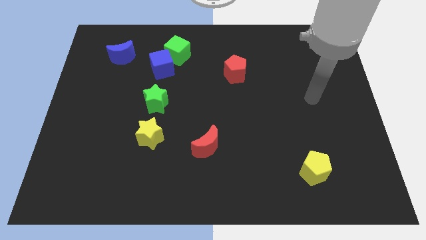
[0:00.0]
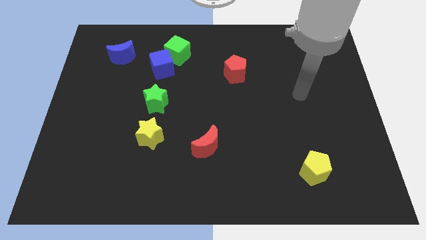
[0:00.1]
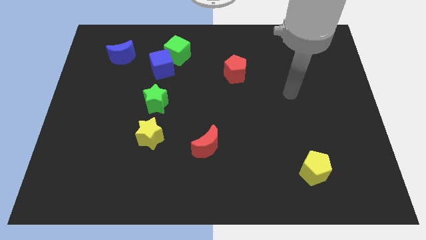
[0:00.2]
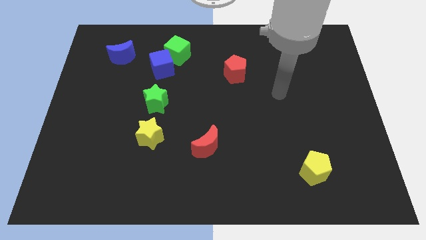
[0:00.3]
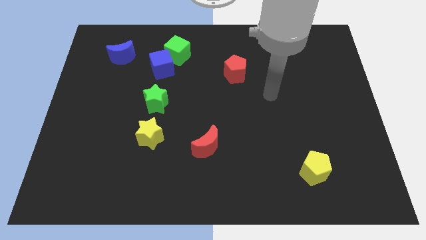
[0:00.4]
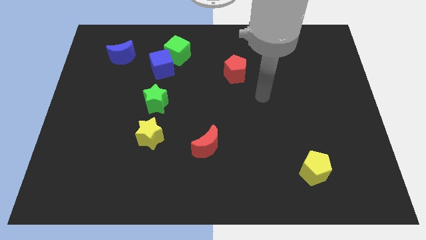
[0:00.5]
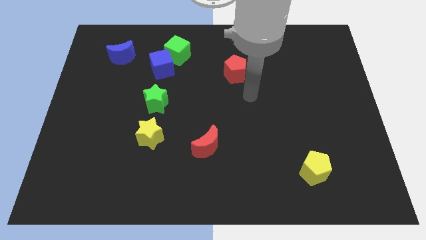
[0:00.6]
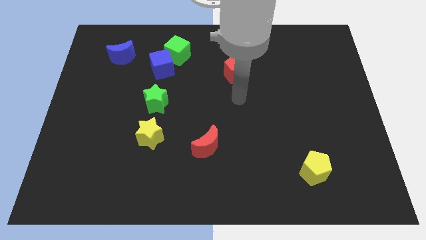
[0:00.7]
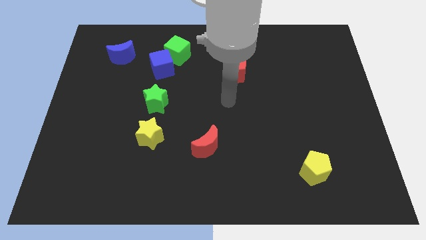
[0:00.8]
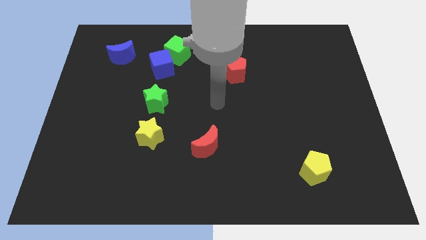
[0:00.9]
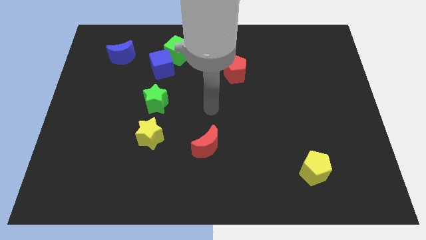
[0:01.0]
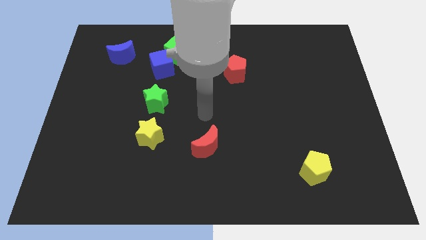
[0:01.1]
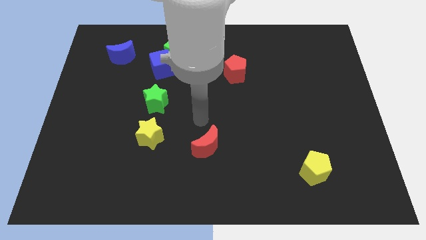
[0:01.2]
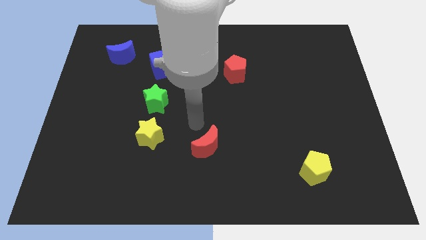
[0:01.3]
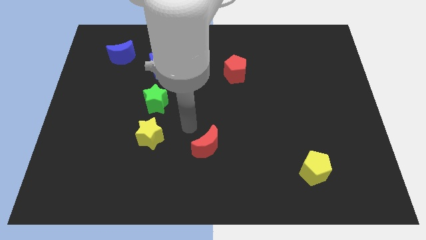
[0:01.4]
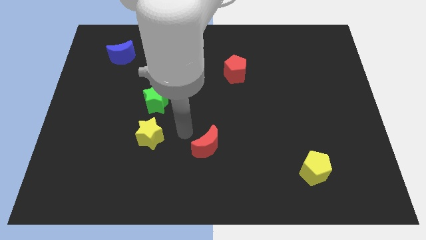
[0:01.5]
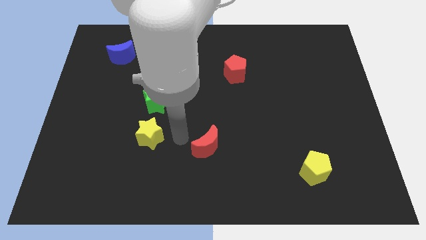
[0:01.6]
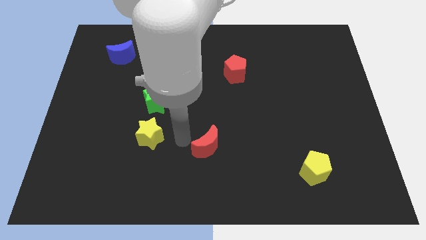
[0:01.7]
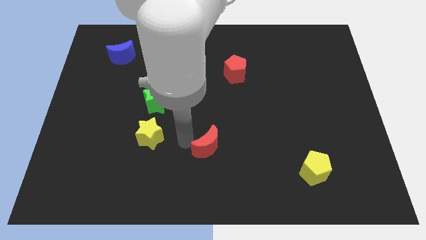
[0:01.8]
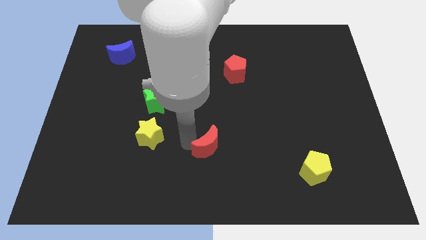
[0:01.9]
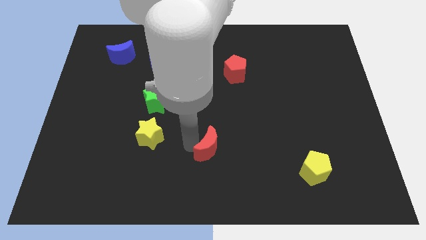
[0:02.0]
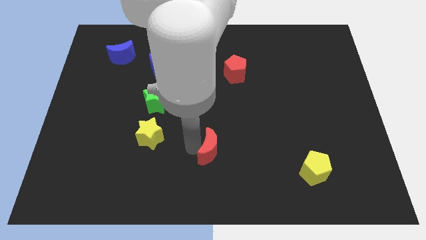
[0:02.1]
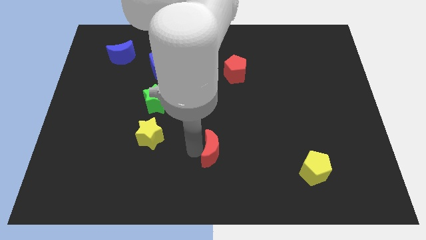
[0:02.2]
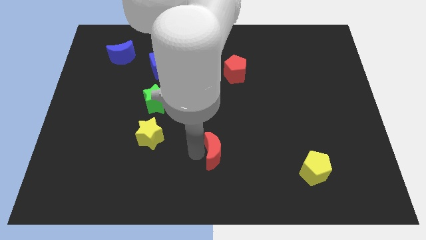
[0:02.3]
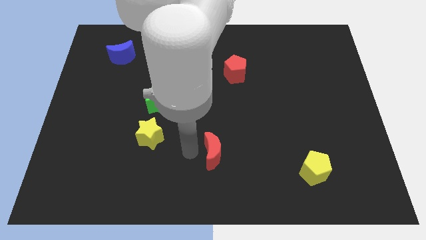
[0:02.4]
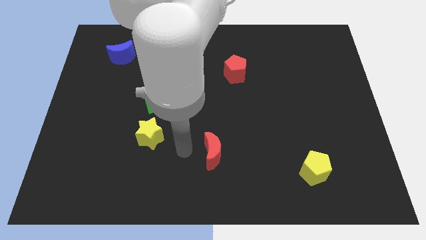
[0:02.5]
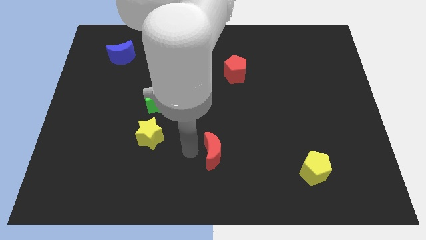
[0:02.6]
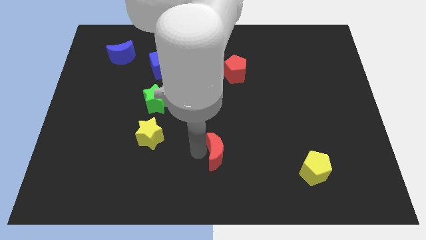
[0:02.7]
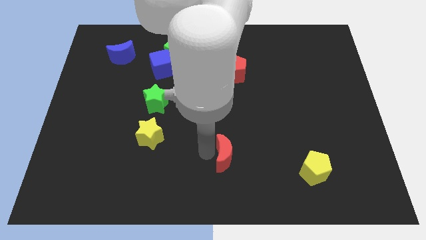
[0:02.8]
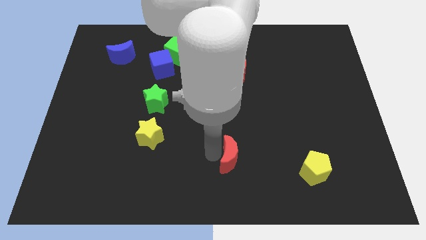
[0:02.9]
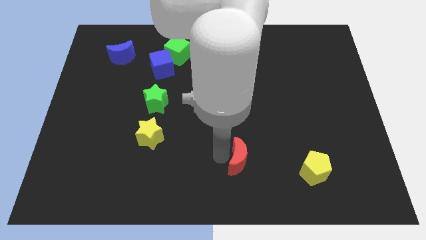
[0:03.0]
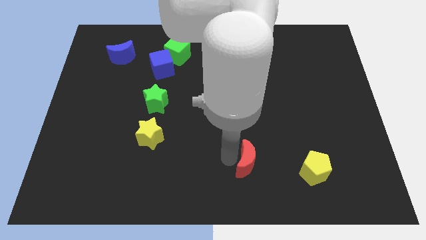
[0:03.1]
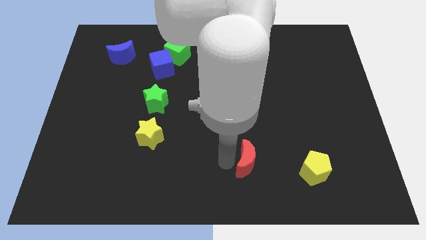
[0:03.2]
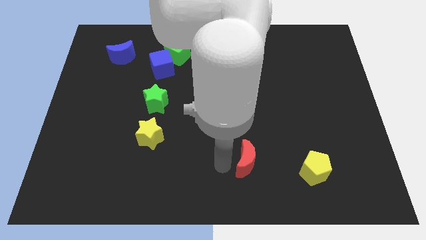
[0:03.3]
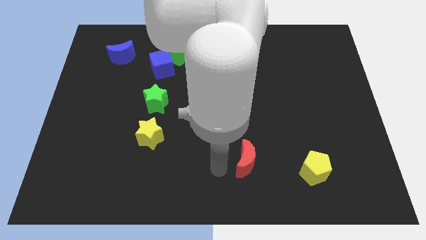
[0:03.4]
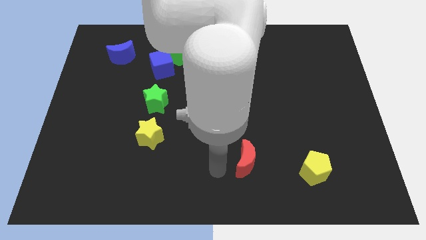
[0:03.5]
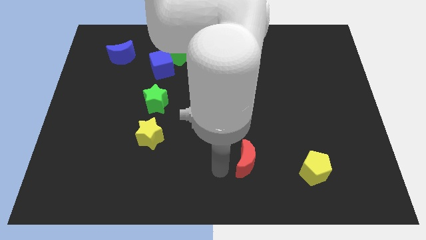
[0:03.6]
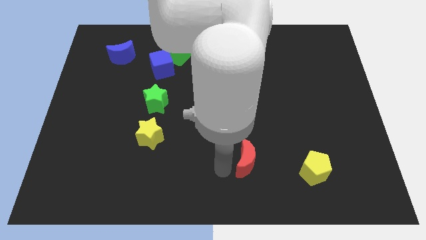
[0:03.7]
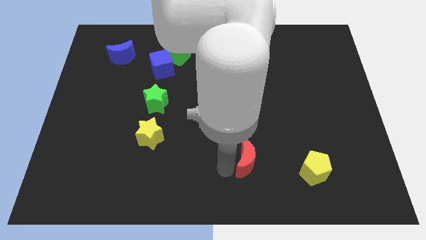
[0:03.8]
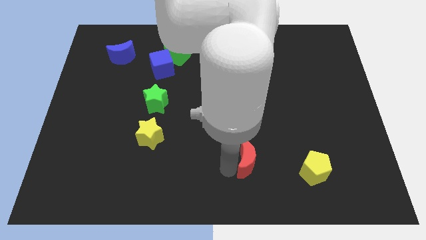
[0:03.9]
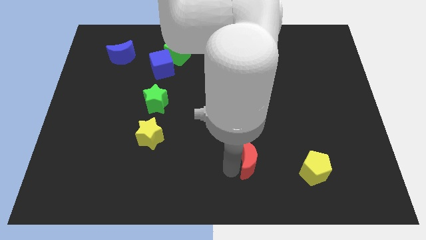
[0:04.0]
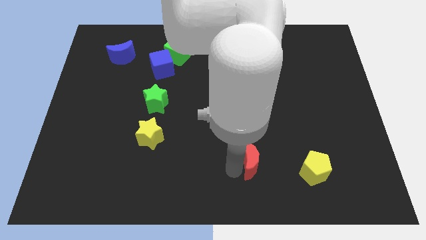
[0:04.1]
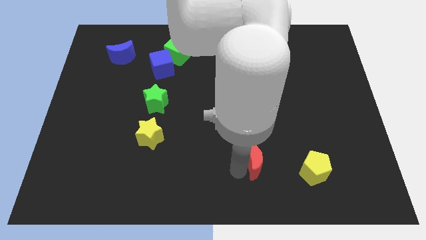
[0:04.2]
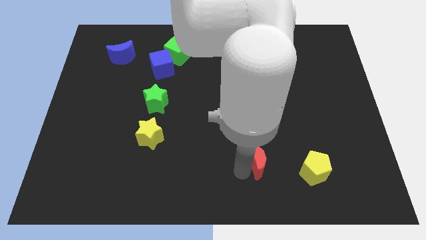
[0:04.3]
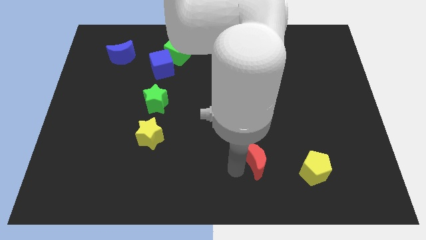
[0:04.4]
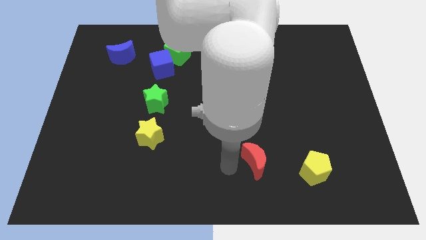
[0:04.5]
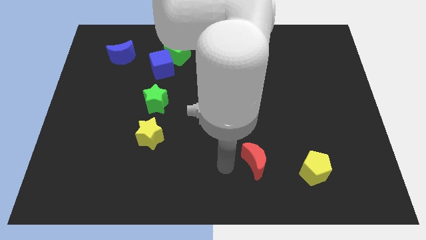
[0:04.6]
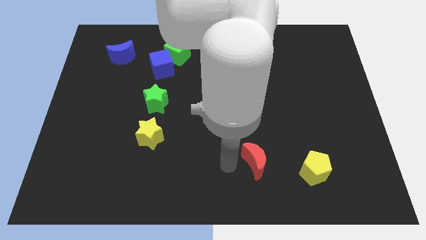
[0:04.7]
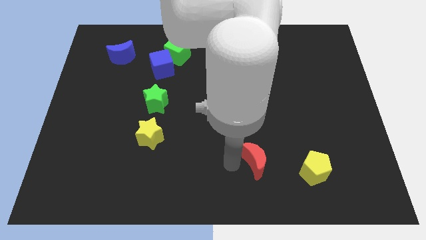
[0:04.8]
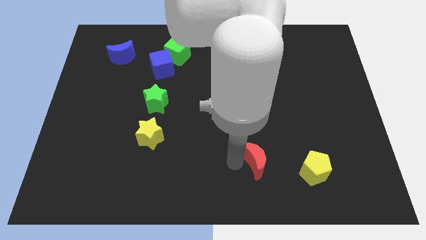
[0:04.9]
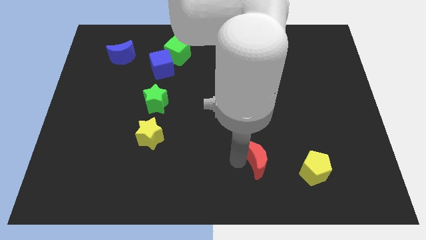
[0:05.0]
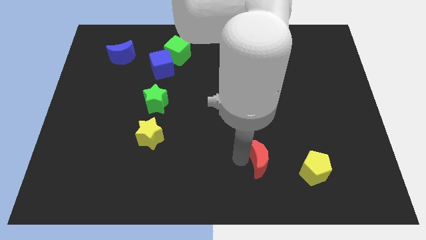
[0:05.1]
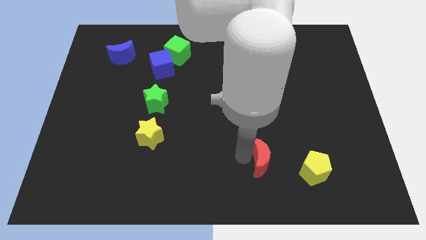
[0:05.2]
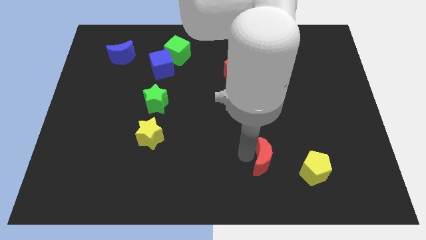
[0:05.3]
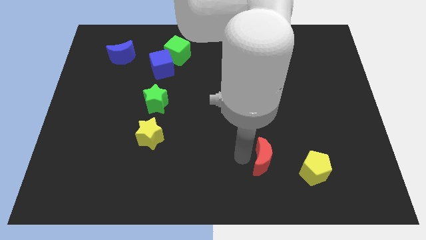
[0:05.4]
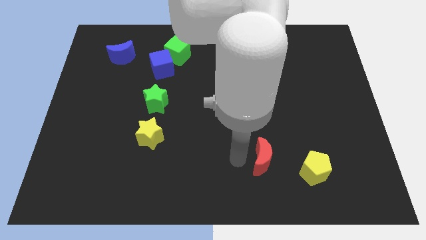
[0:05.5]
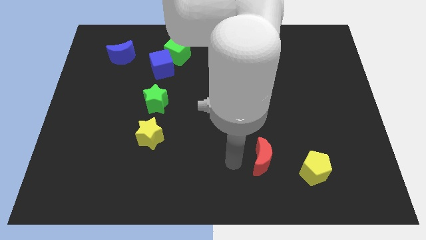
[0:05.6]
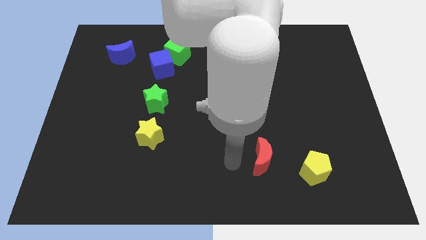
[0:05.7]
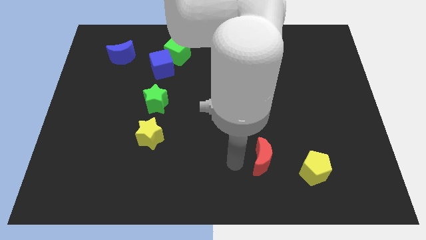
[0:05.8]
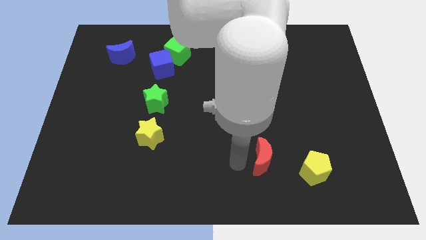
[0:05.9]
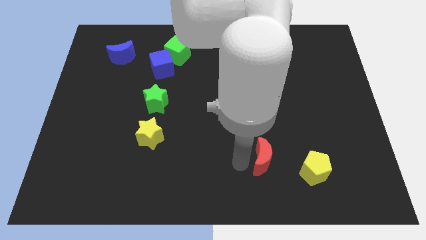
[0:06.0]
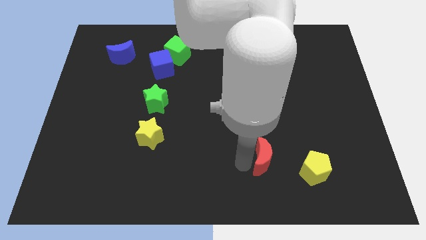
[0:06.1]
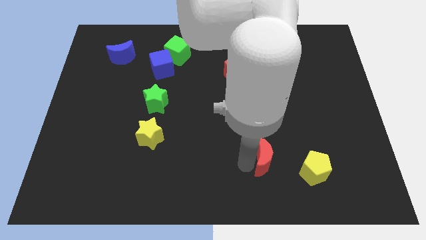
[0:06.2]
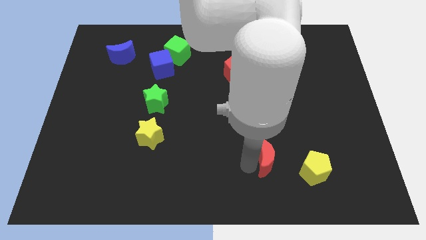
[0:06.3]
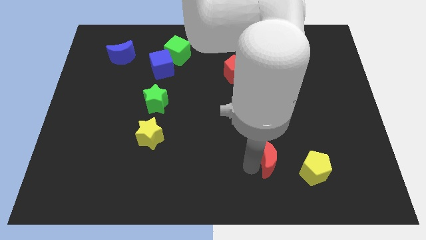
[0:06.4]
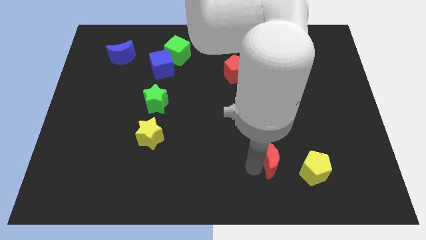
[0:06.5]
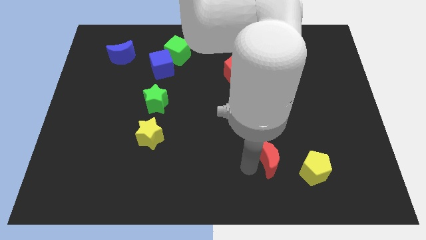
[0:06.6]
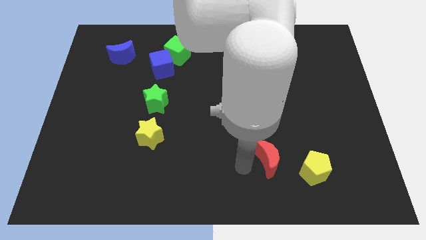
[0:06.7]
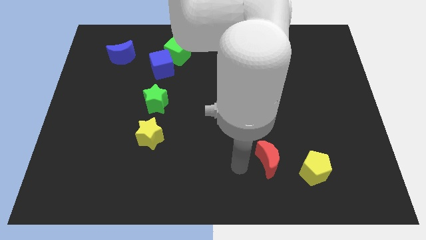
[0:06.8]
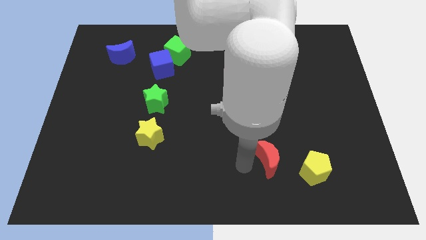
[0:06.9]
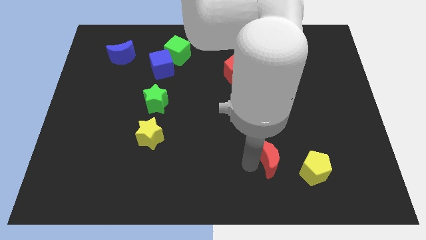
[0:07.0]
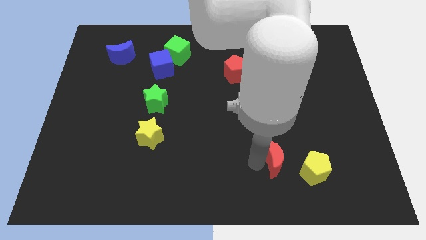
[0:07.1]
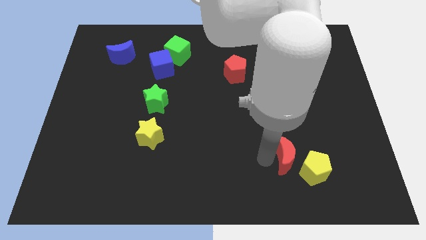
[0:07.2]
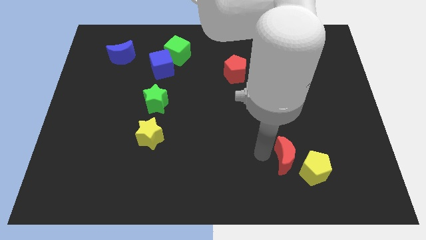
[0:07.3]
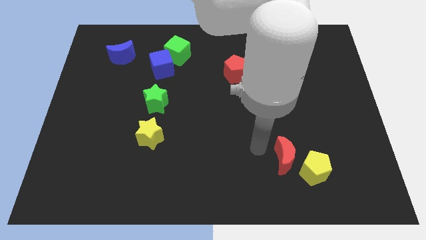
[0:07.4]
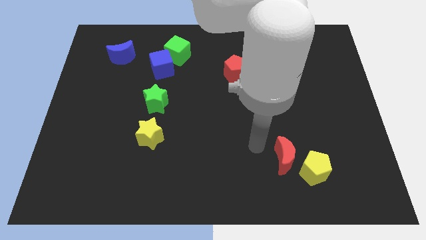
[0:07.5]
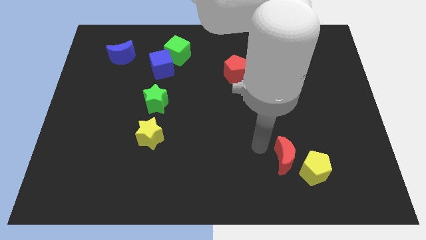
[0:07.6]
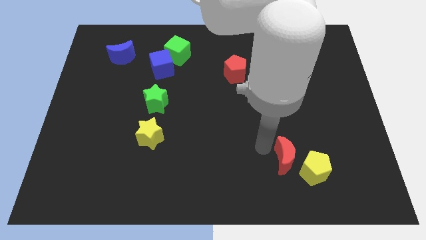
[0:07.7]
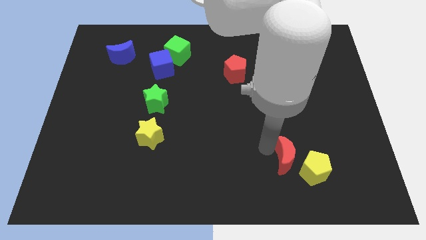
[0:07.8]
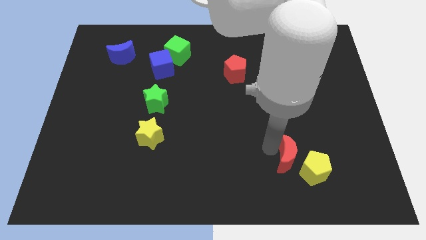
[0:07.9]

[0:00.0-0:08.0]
push the red moon next to the yellow pentagon
